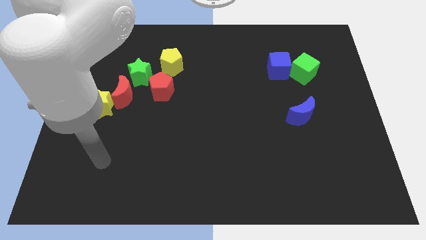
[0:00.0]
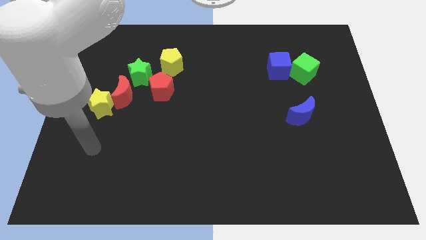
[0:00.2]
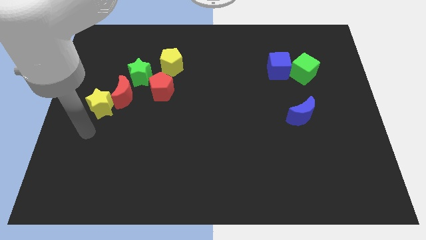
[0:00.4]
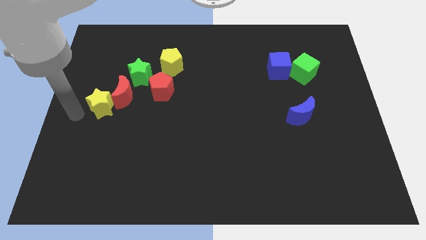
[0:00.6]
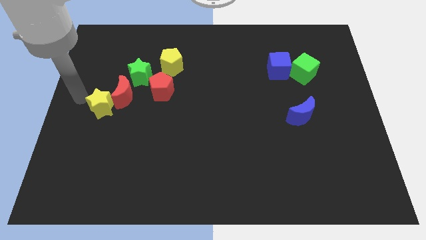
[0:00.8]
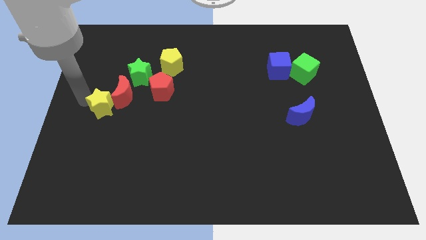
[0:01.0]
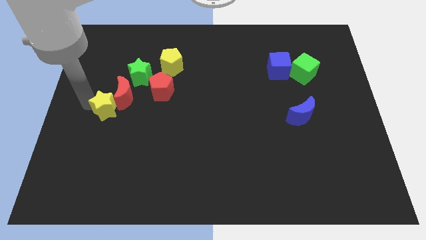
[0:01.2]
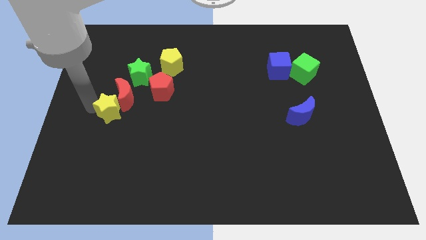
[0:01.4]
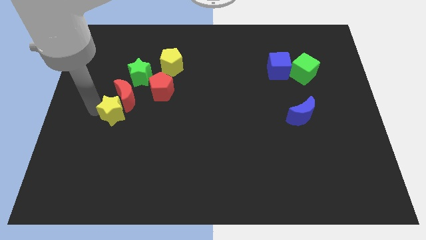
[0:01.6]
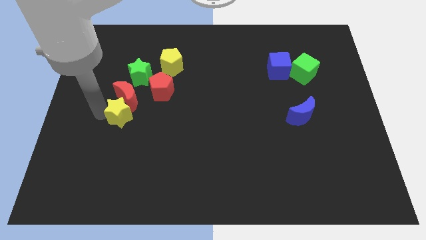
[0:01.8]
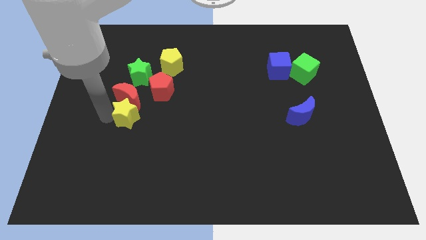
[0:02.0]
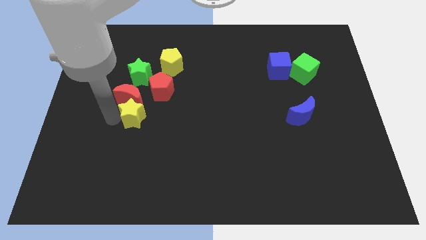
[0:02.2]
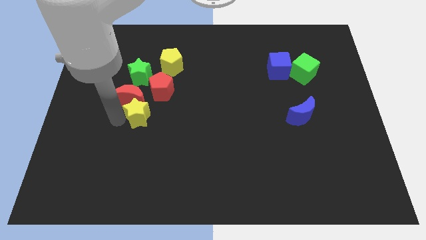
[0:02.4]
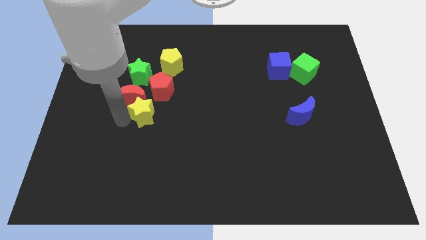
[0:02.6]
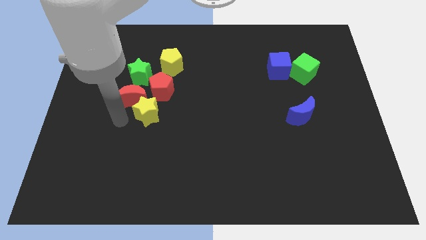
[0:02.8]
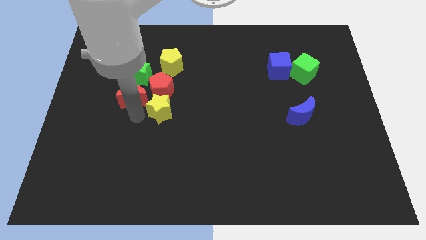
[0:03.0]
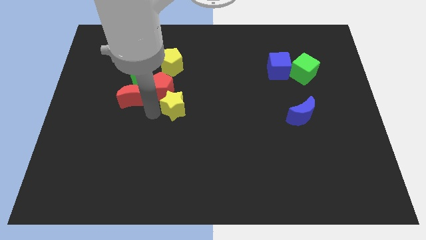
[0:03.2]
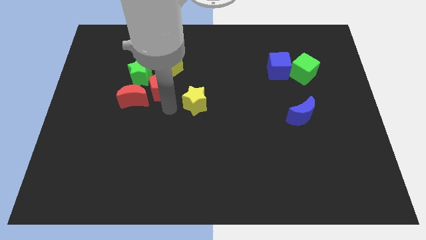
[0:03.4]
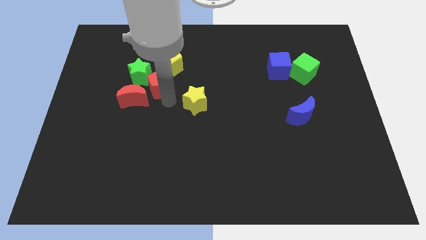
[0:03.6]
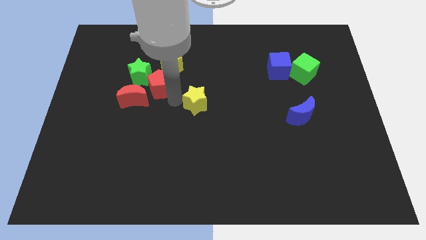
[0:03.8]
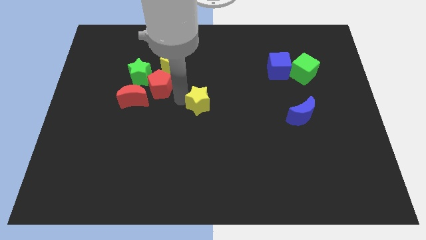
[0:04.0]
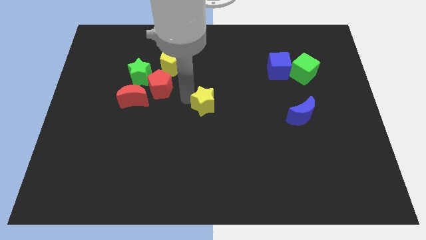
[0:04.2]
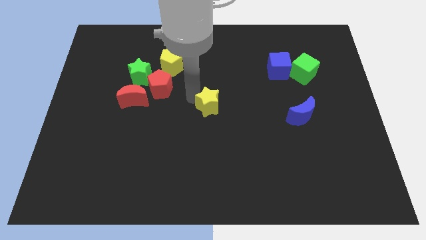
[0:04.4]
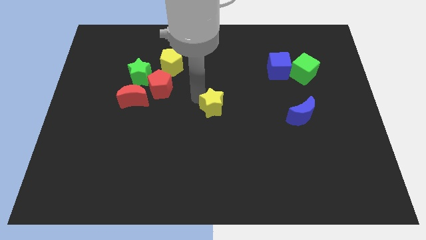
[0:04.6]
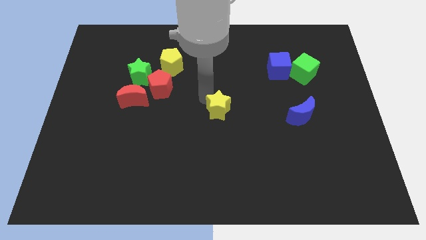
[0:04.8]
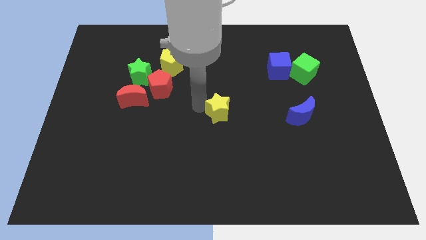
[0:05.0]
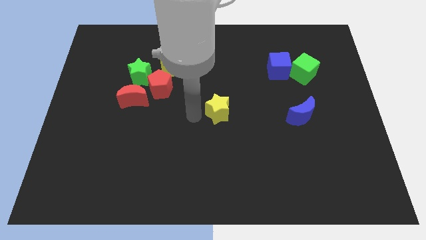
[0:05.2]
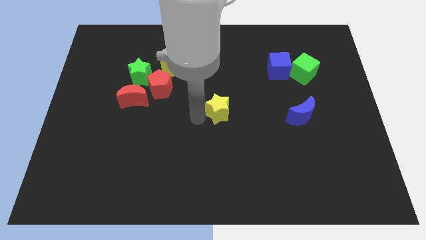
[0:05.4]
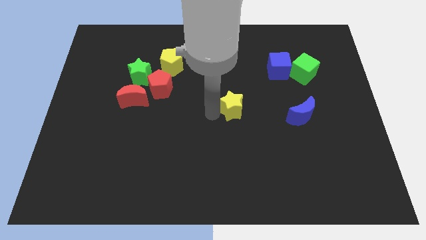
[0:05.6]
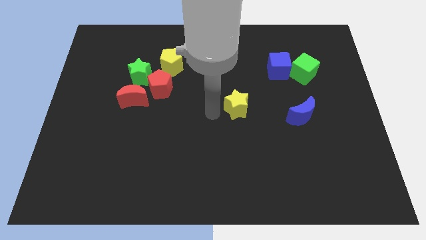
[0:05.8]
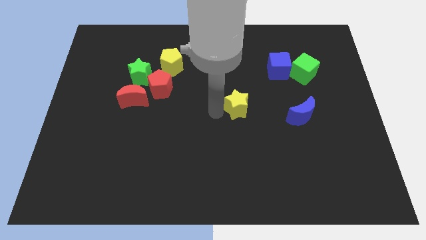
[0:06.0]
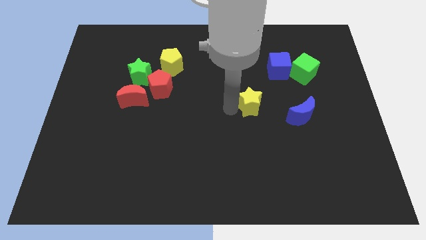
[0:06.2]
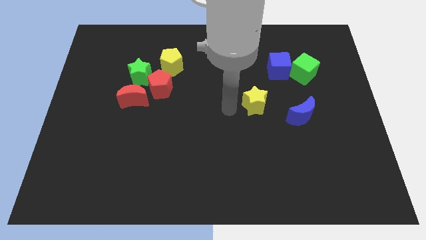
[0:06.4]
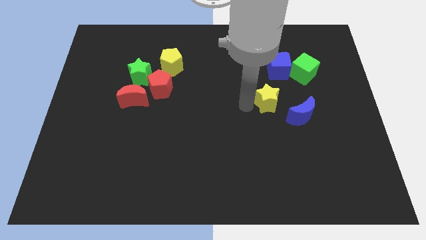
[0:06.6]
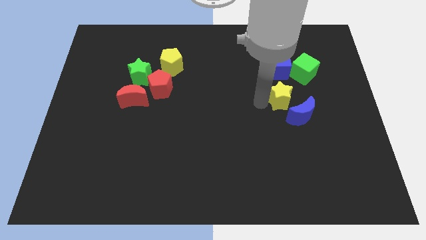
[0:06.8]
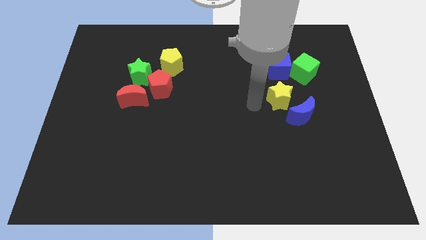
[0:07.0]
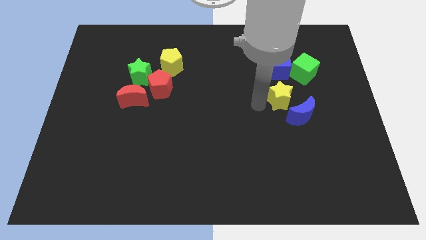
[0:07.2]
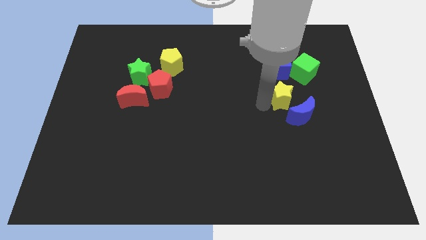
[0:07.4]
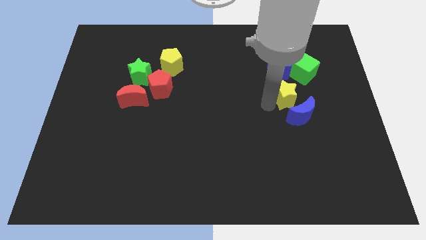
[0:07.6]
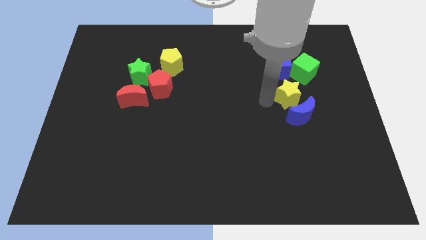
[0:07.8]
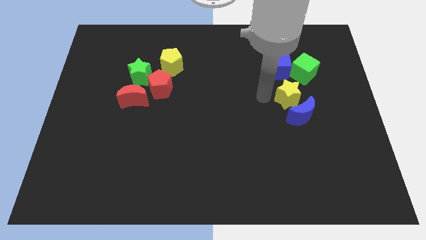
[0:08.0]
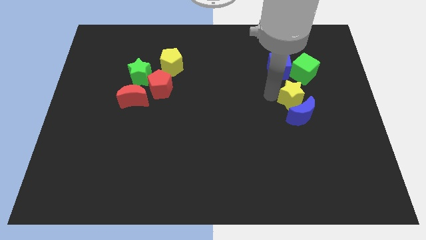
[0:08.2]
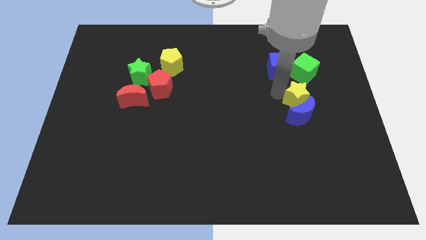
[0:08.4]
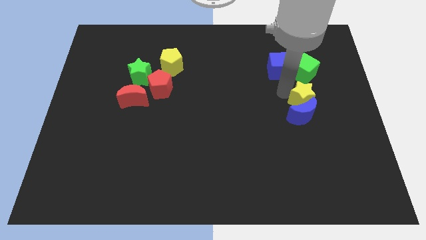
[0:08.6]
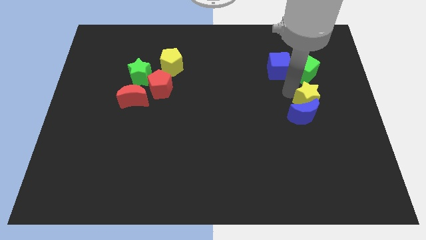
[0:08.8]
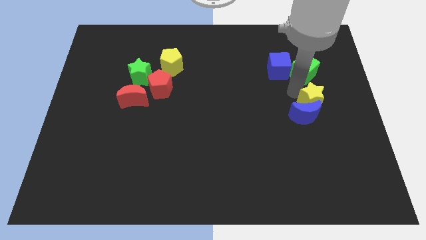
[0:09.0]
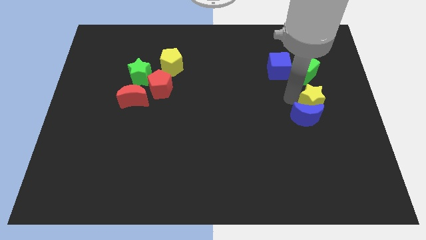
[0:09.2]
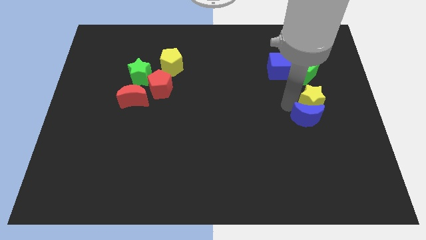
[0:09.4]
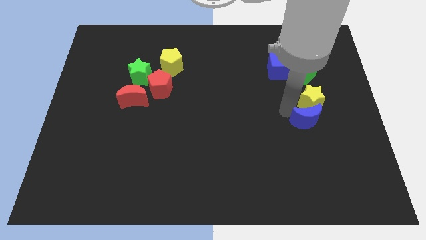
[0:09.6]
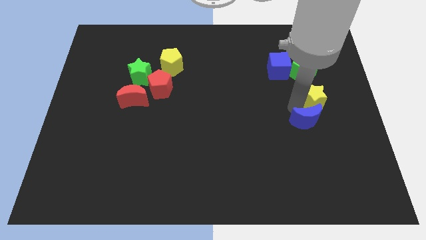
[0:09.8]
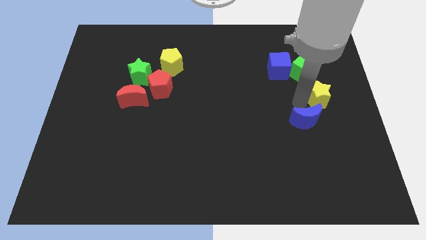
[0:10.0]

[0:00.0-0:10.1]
push the yellow star to the right side

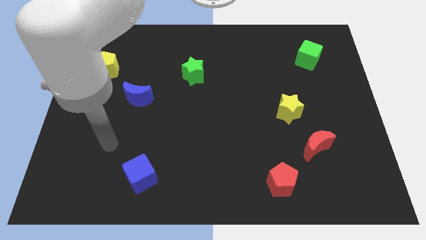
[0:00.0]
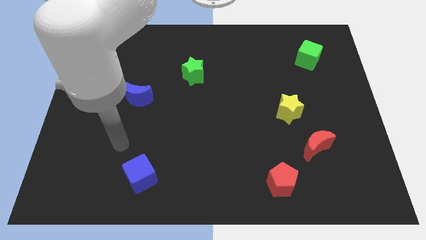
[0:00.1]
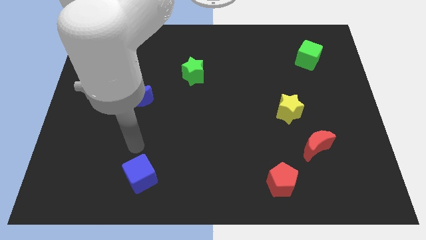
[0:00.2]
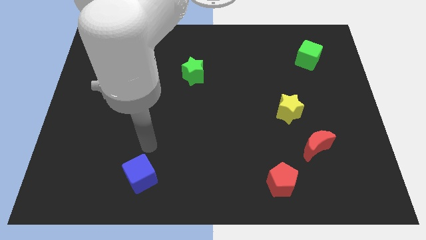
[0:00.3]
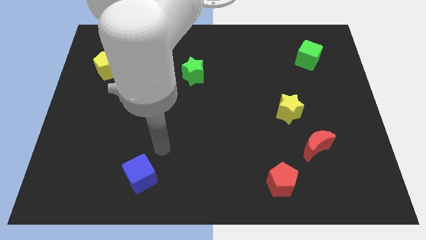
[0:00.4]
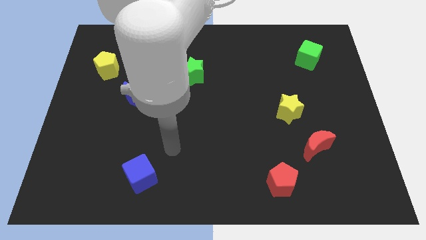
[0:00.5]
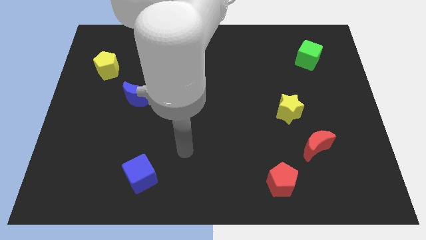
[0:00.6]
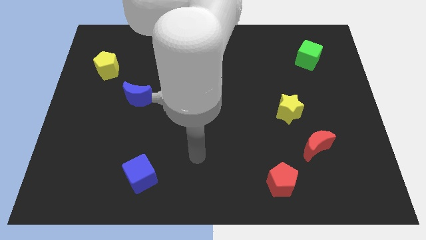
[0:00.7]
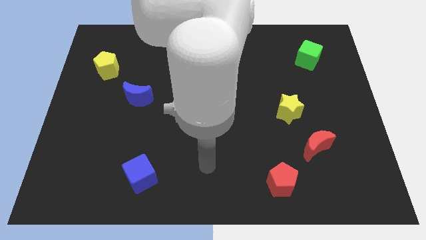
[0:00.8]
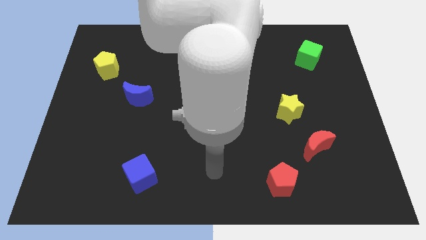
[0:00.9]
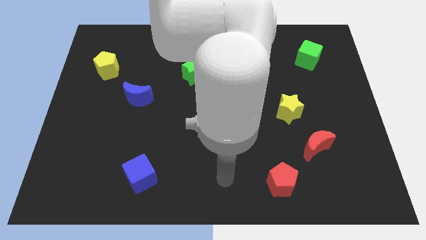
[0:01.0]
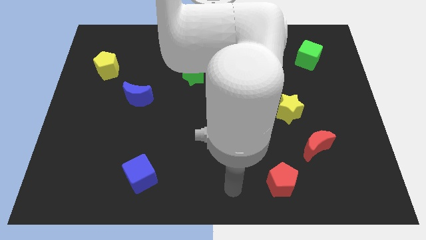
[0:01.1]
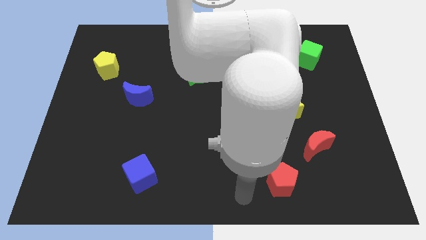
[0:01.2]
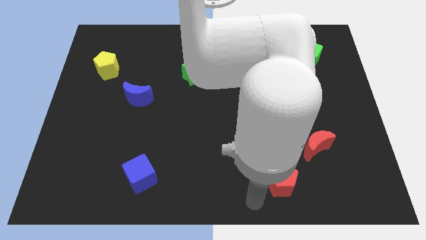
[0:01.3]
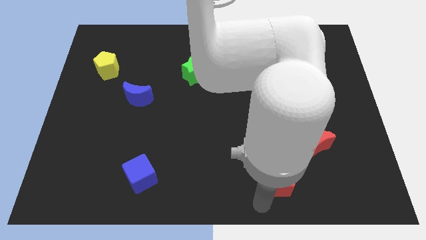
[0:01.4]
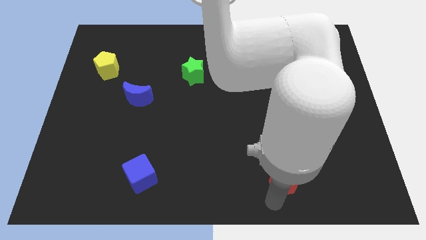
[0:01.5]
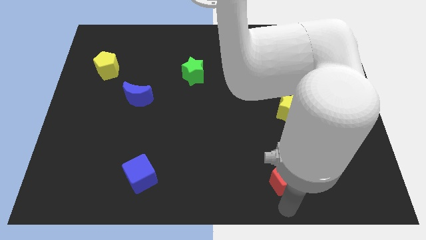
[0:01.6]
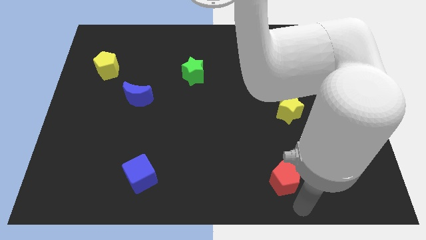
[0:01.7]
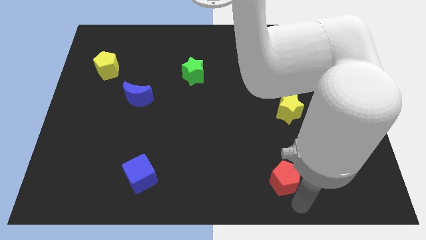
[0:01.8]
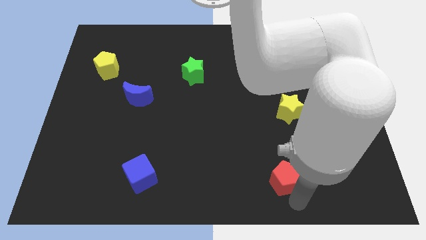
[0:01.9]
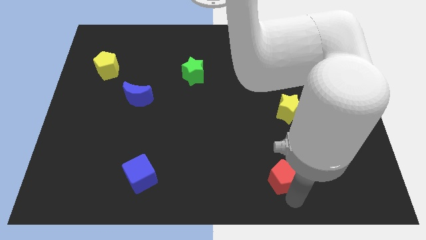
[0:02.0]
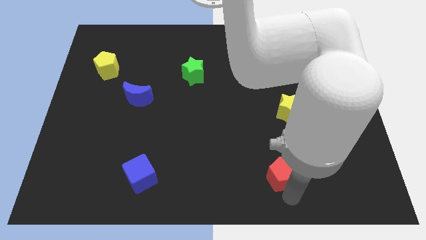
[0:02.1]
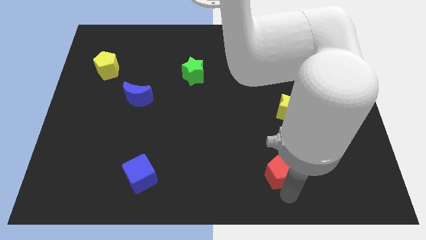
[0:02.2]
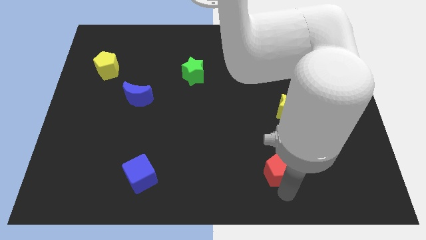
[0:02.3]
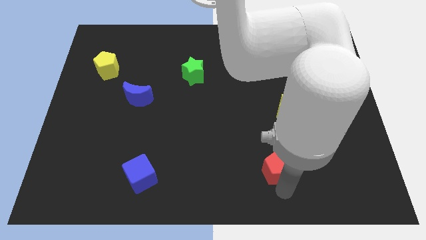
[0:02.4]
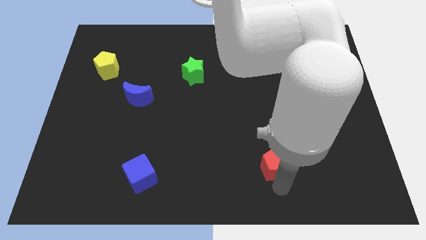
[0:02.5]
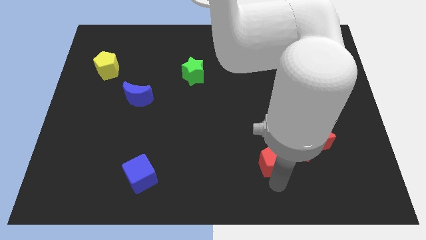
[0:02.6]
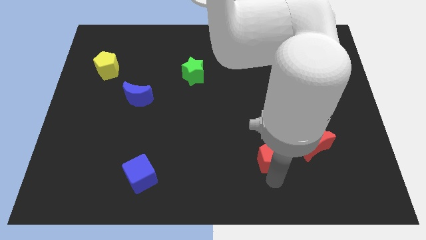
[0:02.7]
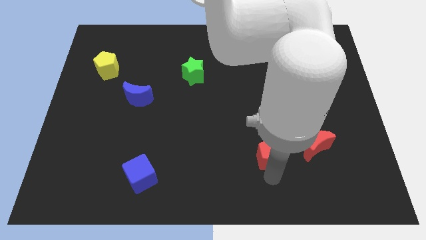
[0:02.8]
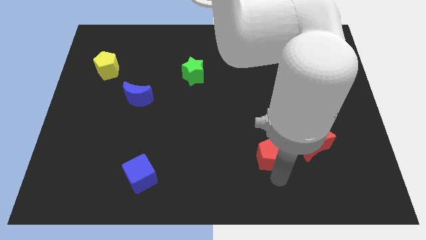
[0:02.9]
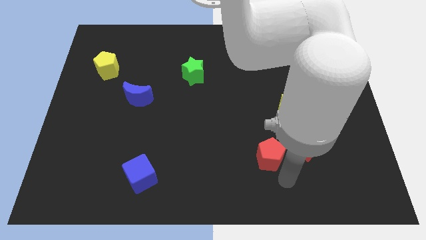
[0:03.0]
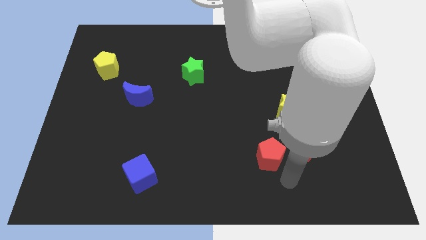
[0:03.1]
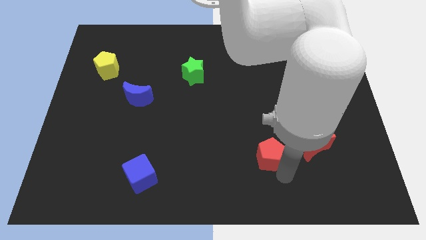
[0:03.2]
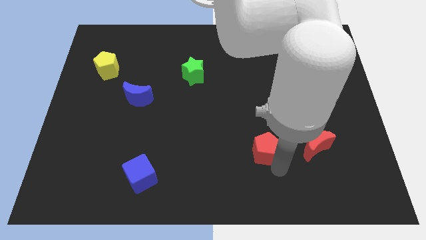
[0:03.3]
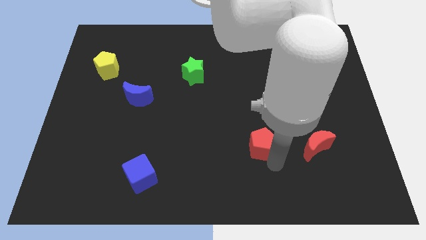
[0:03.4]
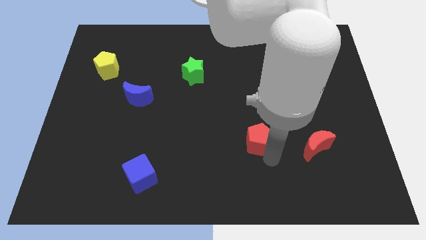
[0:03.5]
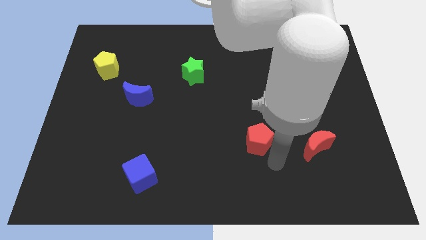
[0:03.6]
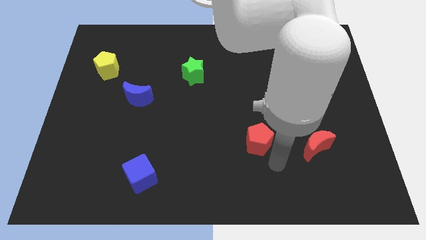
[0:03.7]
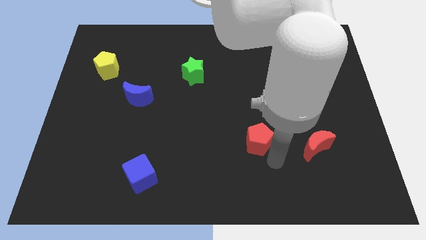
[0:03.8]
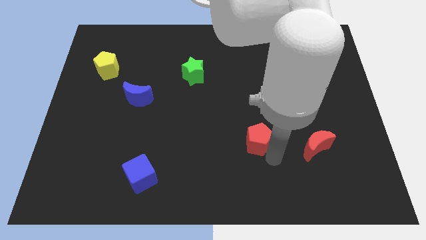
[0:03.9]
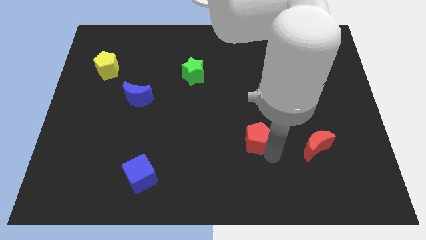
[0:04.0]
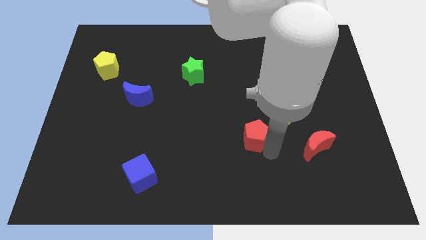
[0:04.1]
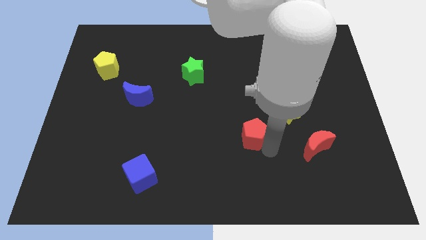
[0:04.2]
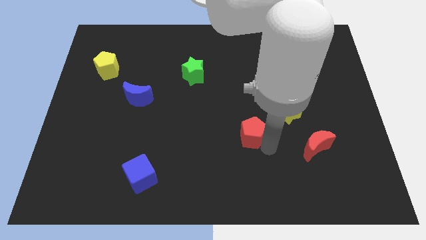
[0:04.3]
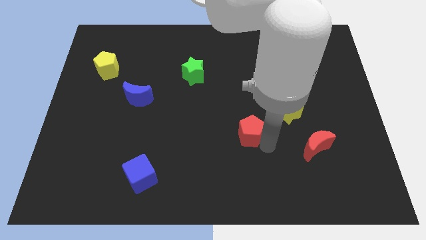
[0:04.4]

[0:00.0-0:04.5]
put the red pentagon to the center
